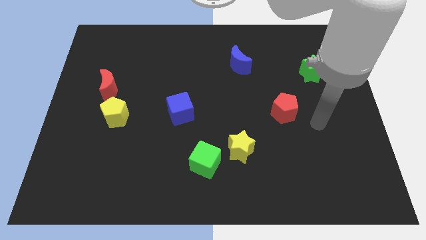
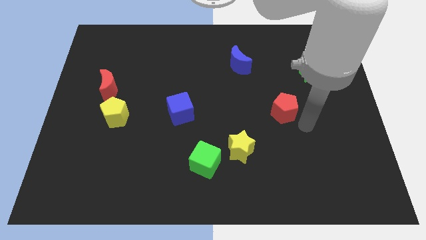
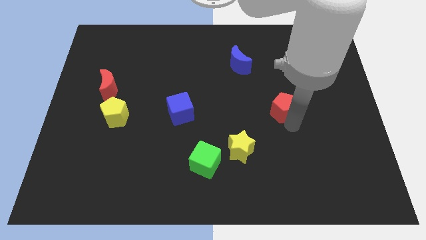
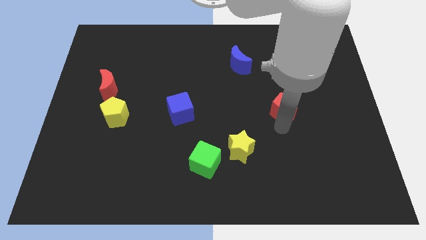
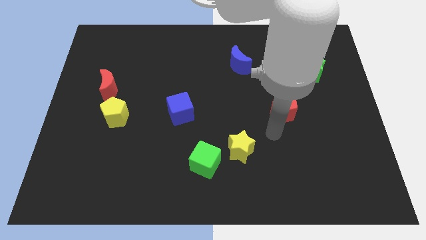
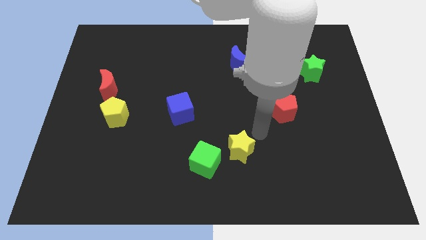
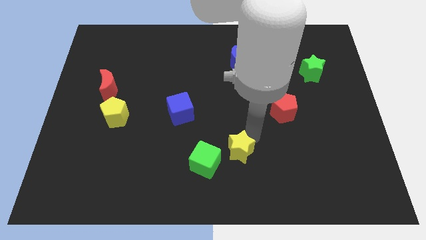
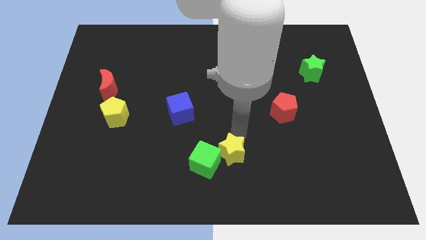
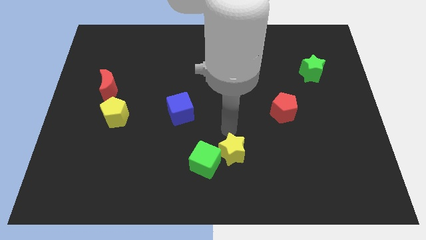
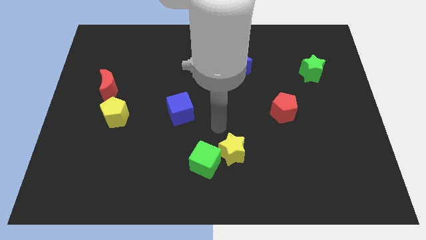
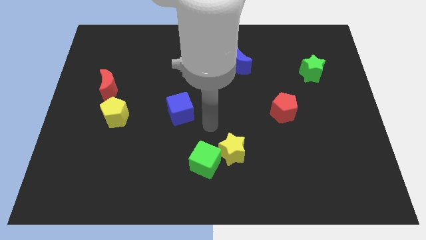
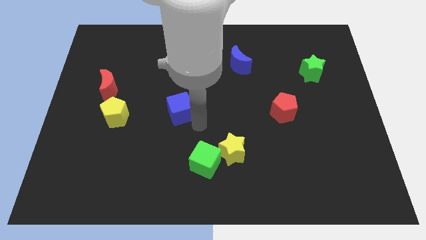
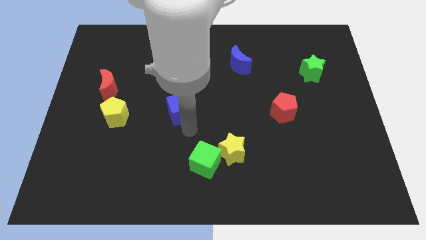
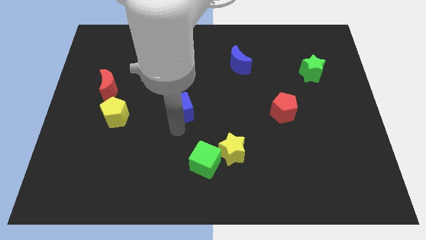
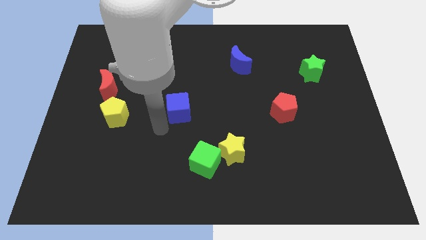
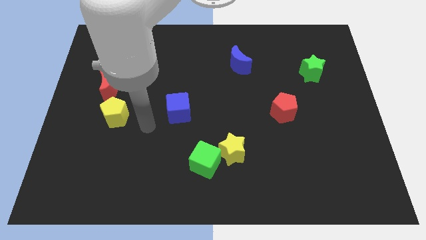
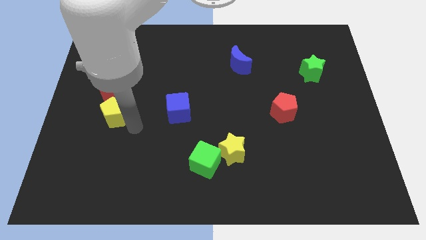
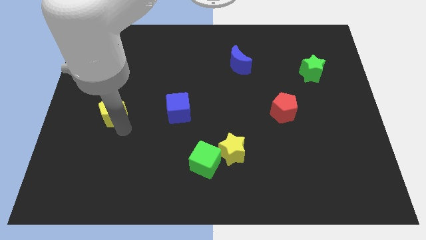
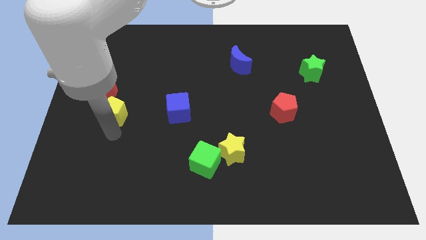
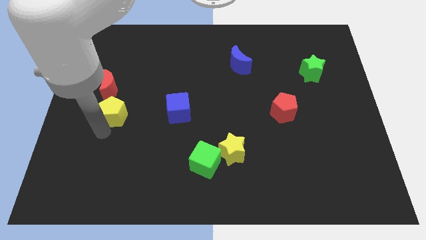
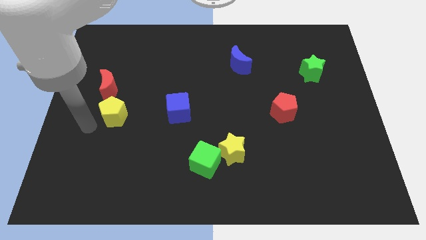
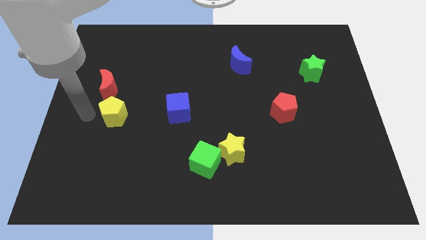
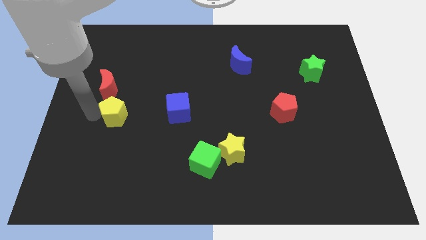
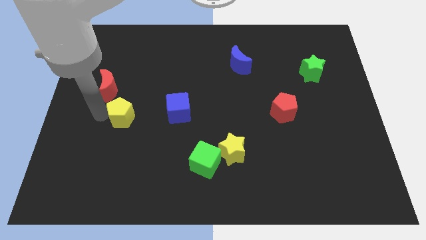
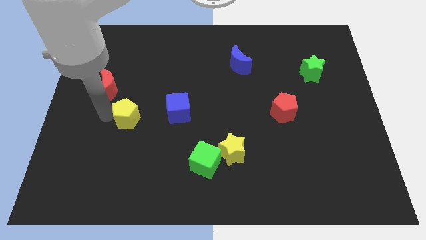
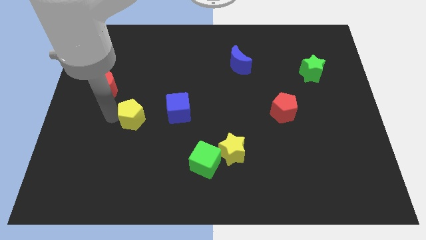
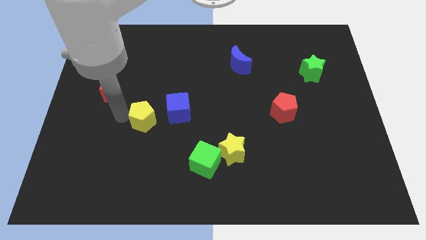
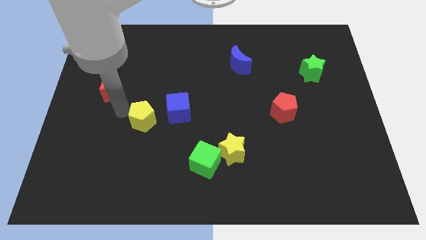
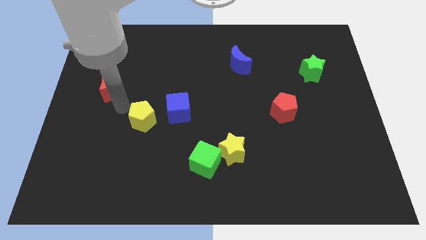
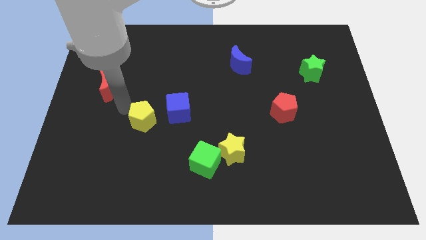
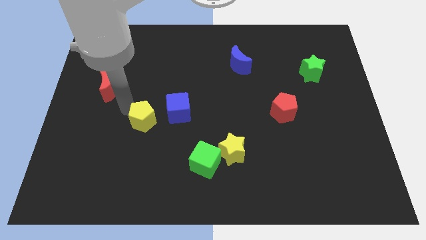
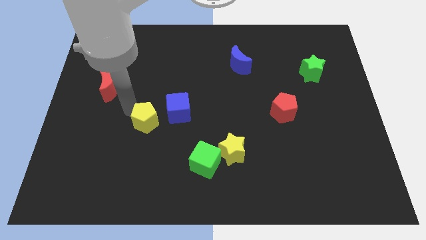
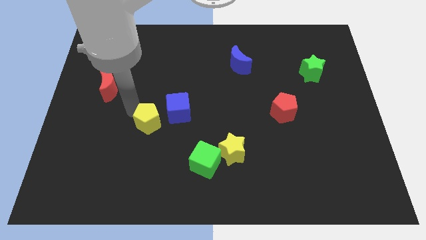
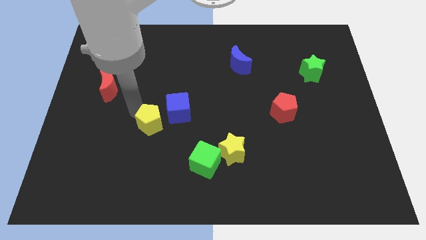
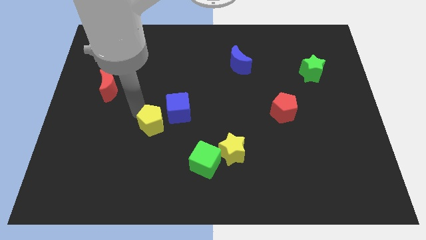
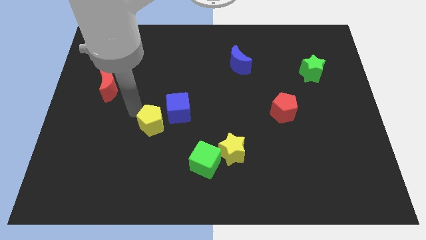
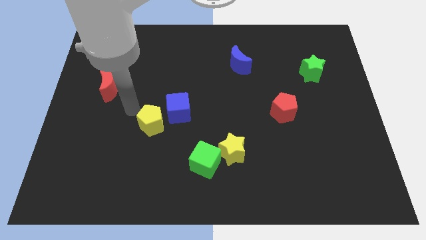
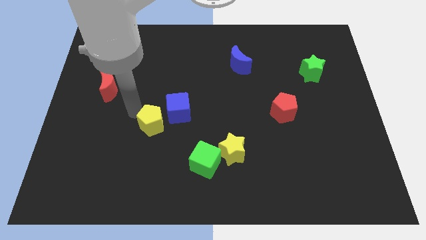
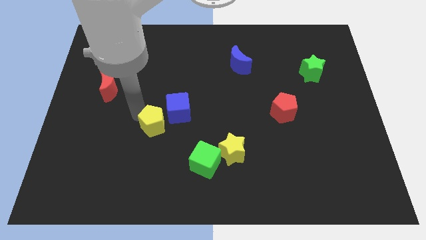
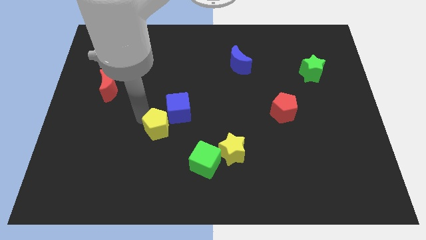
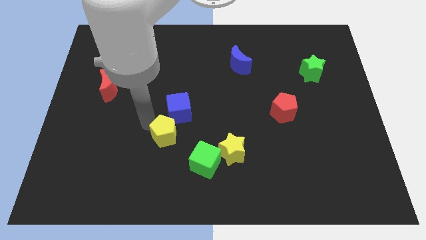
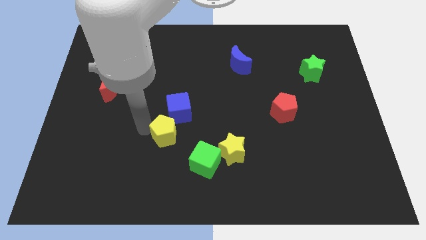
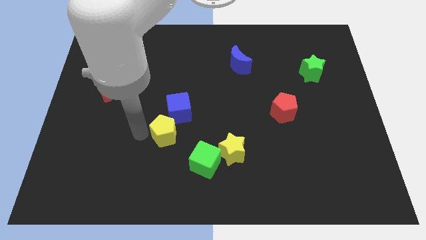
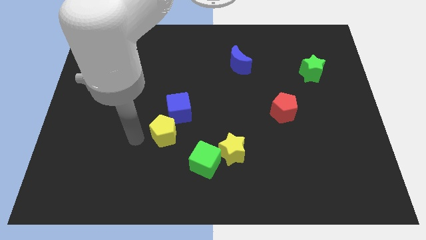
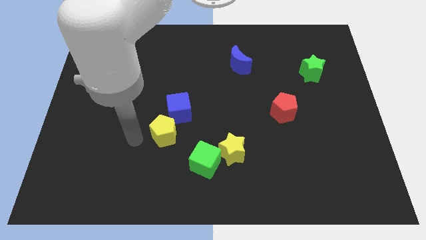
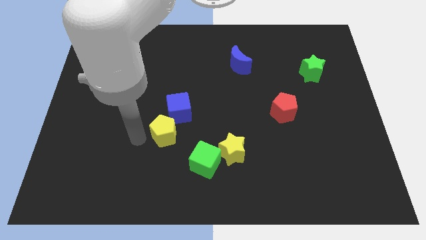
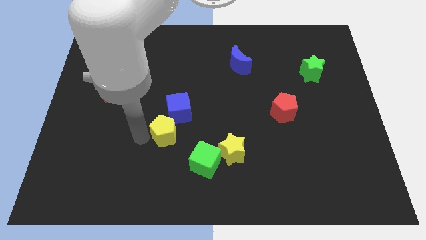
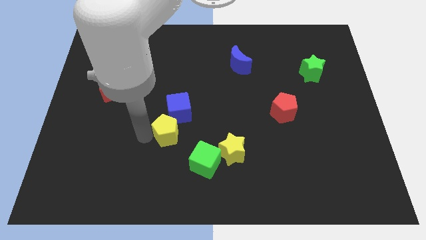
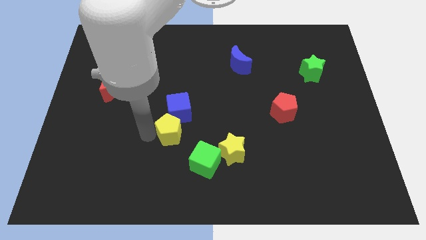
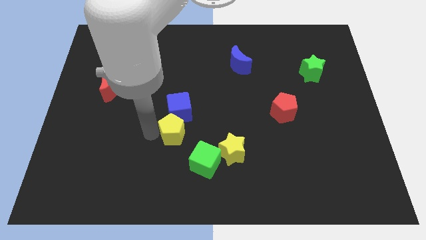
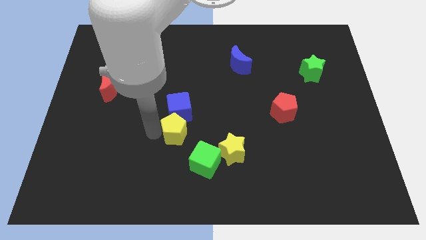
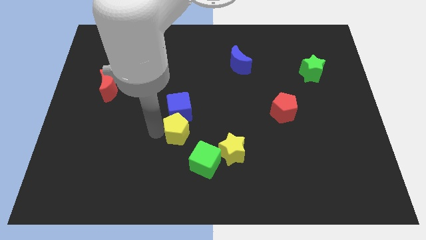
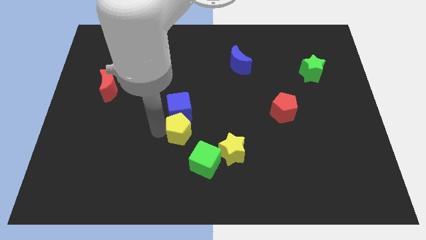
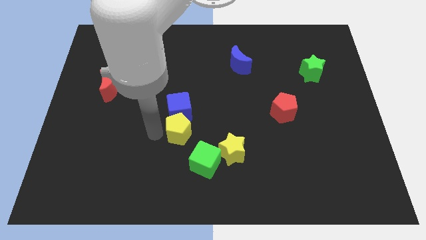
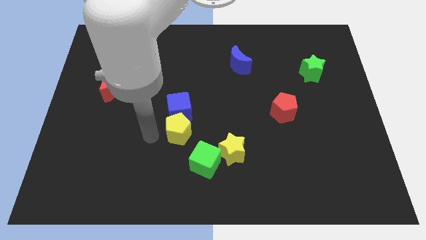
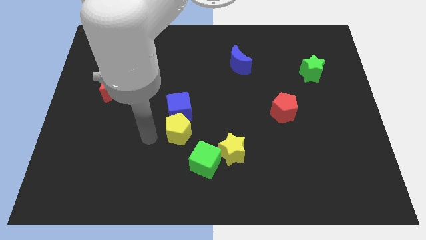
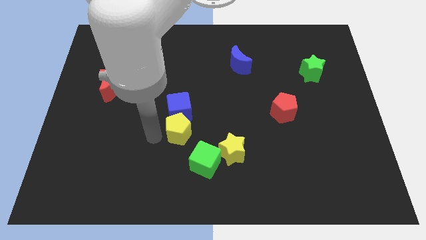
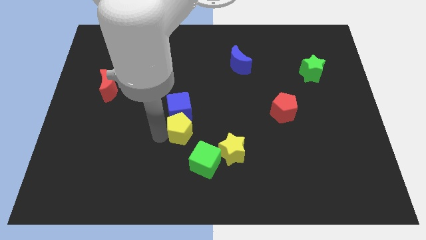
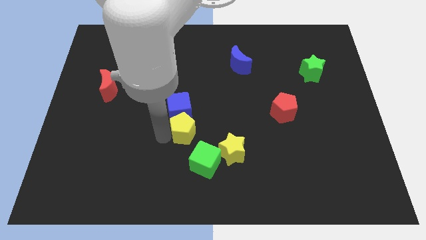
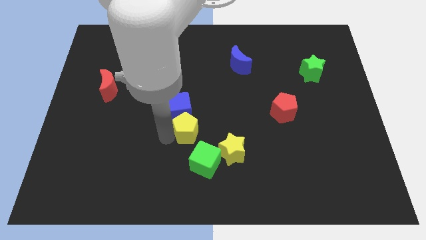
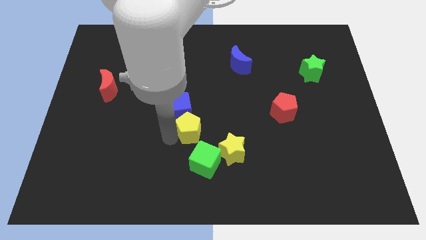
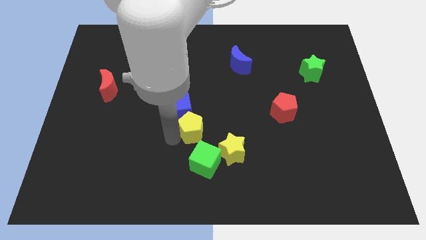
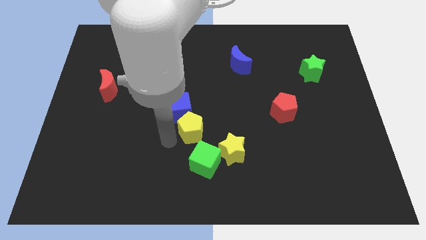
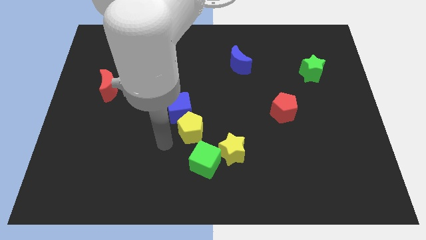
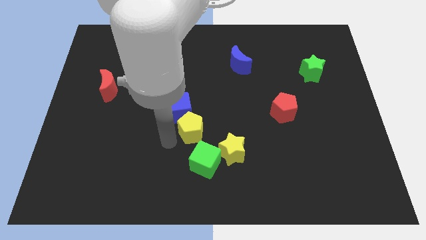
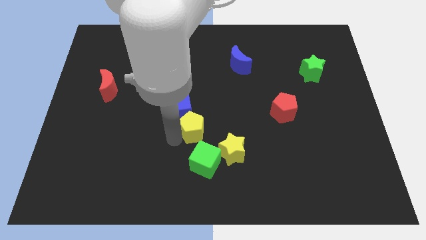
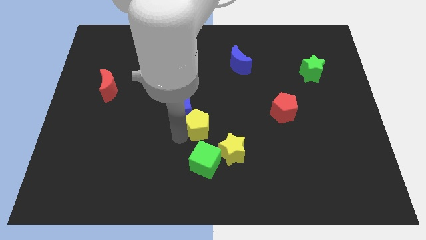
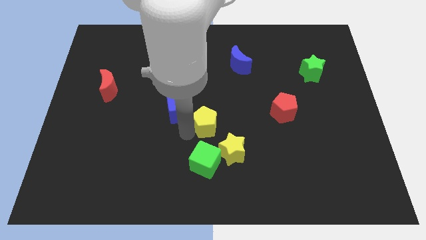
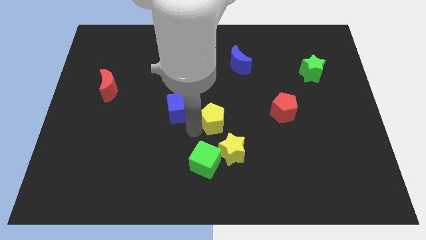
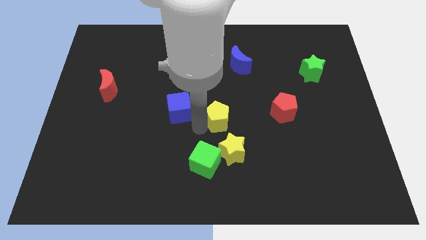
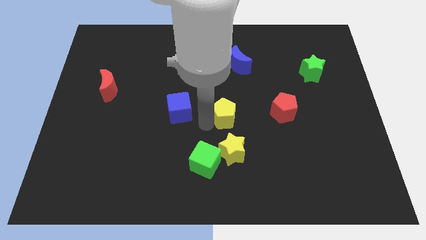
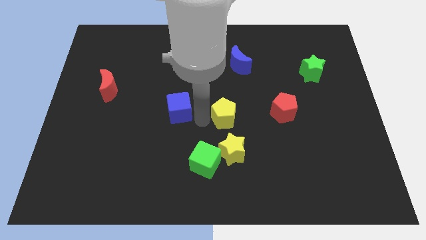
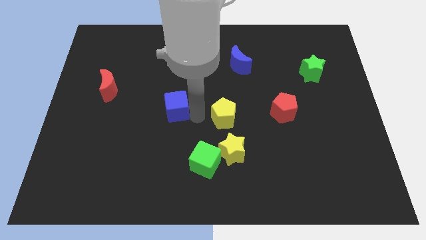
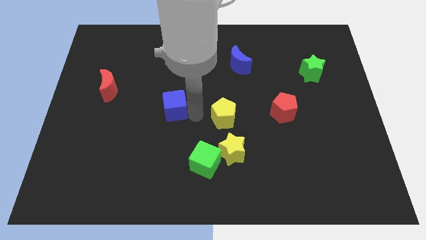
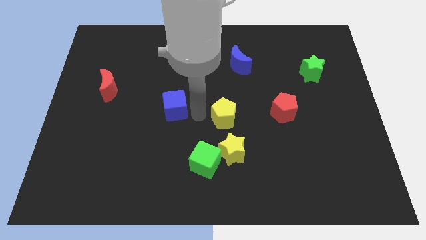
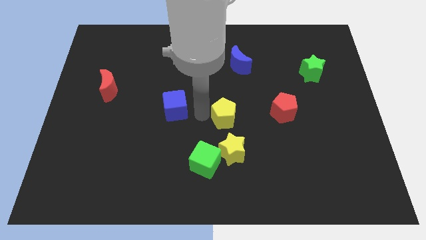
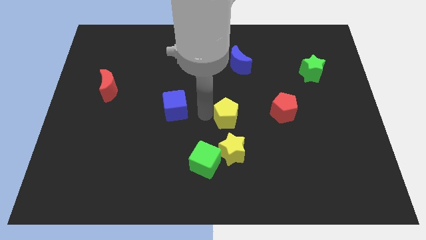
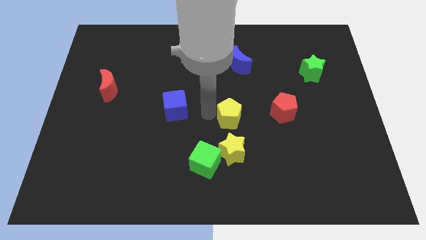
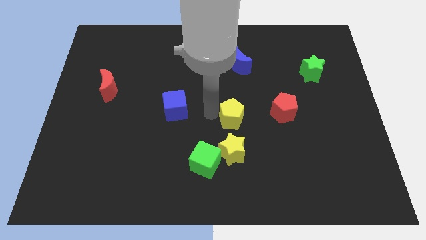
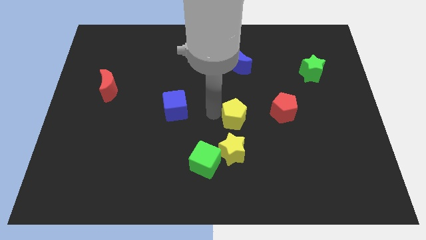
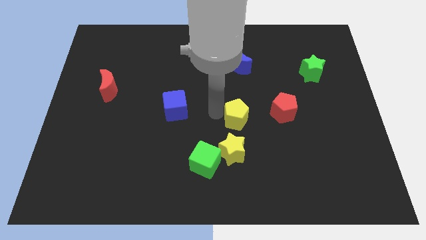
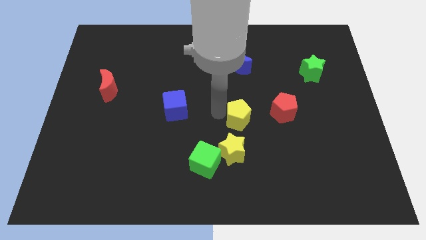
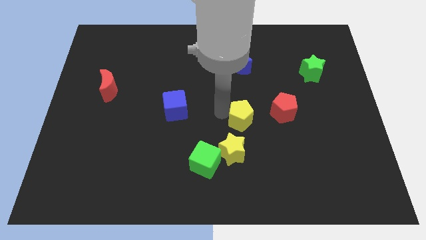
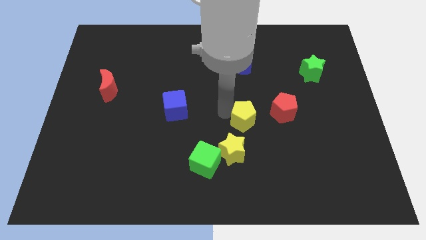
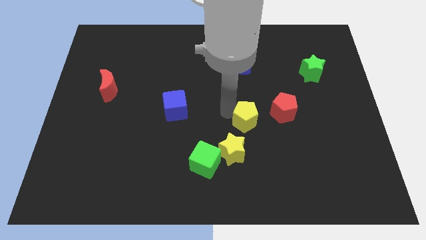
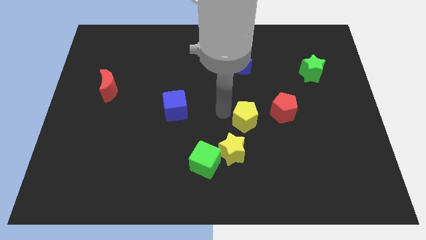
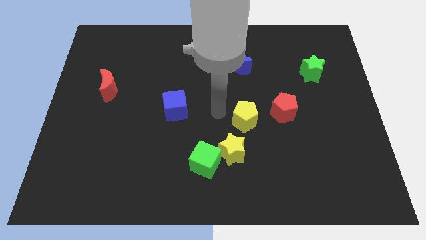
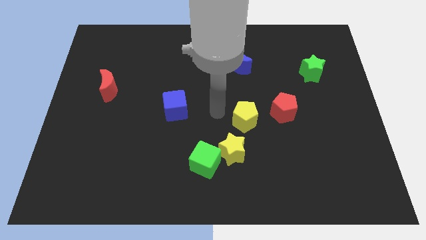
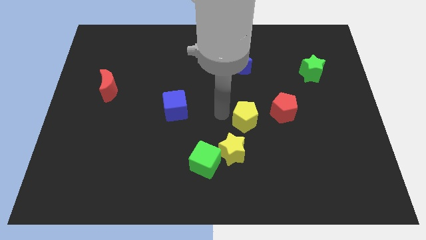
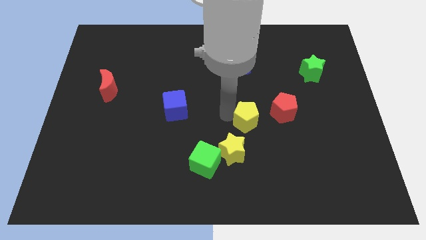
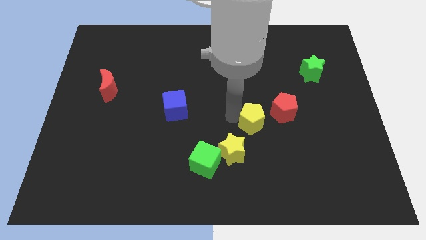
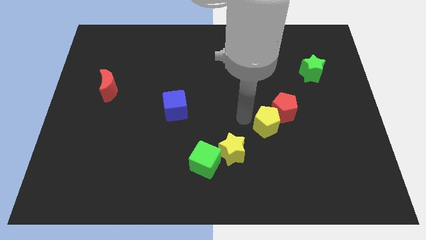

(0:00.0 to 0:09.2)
move the yellow pentagon to the bottom of the red pentagon
